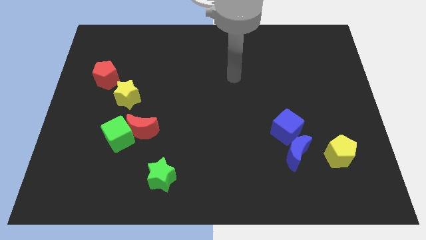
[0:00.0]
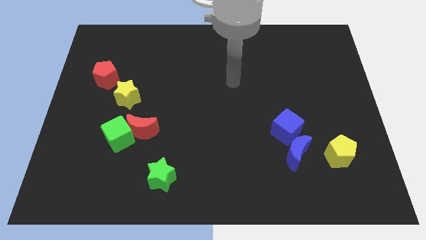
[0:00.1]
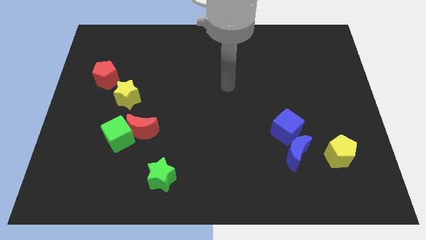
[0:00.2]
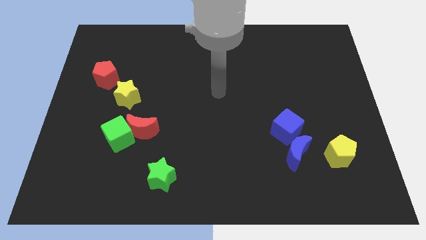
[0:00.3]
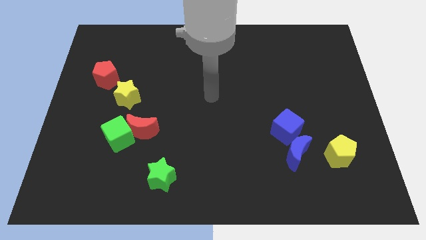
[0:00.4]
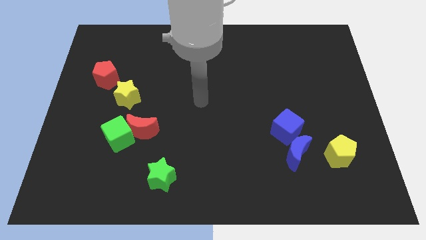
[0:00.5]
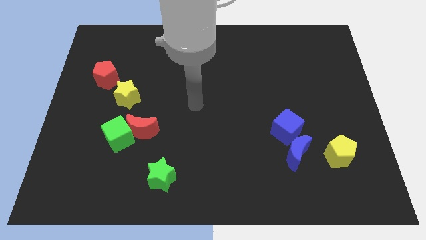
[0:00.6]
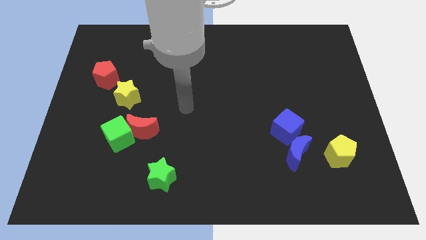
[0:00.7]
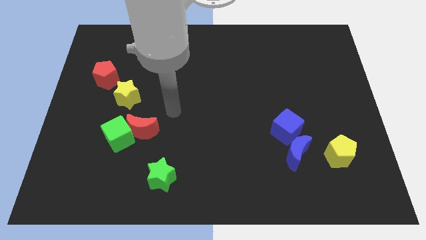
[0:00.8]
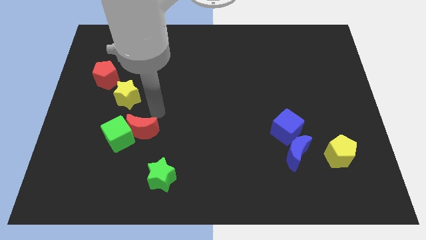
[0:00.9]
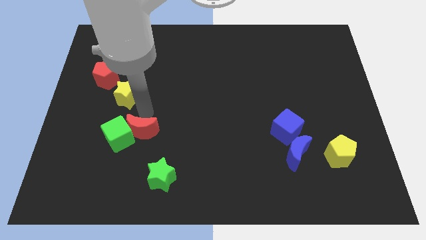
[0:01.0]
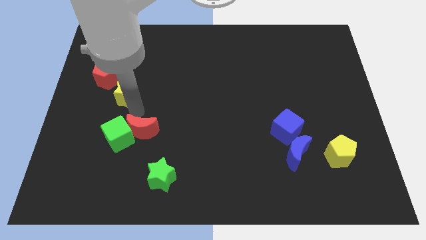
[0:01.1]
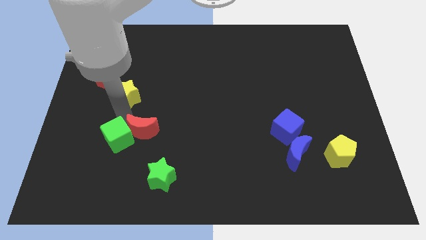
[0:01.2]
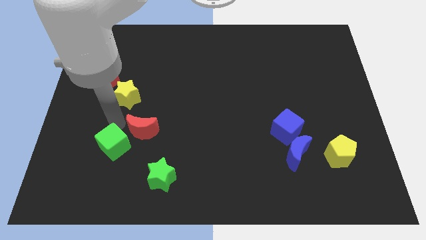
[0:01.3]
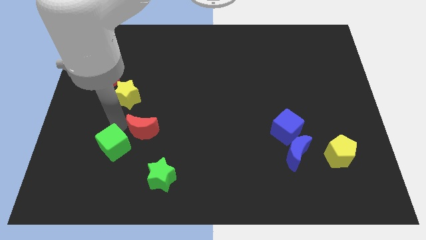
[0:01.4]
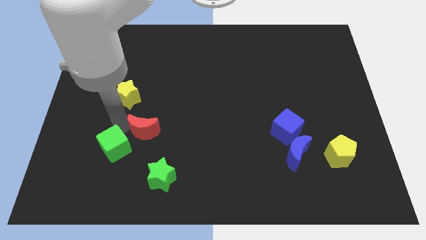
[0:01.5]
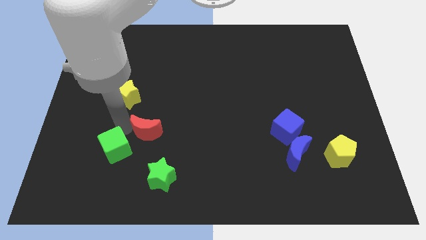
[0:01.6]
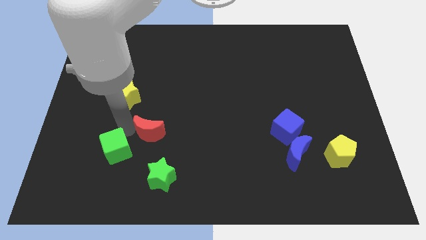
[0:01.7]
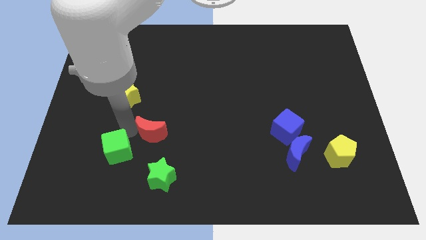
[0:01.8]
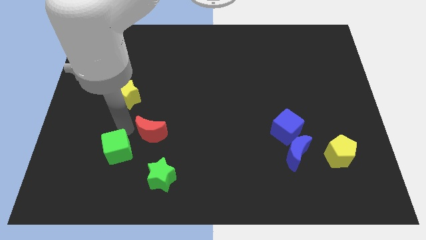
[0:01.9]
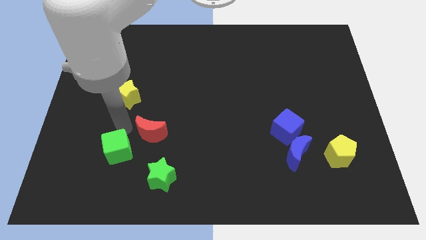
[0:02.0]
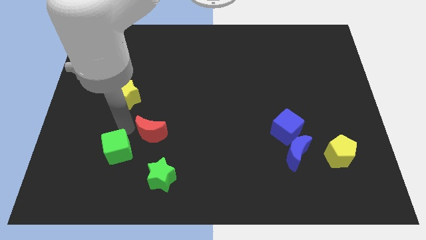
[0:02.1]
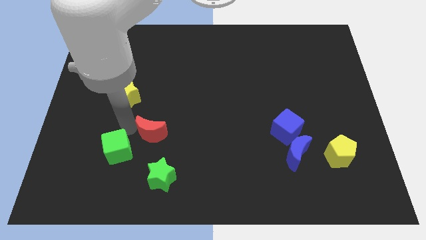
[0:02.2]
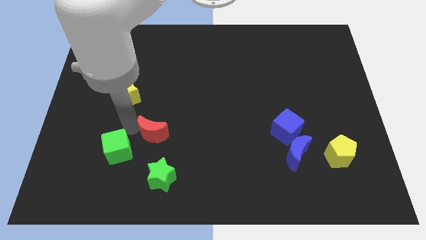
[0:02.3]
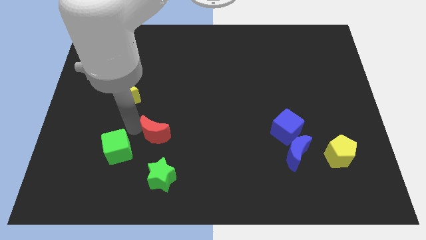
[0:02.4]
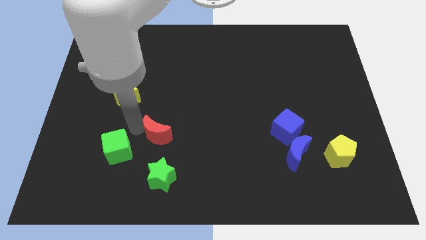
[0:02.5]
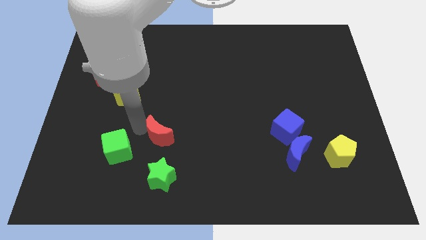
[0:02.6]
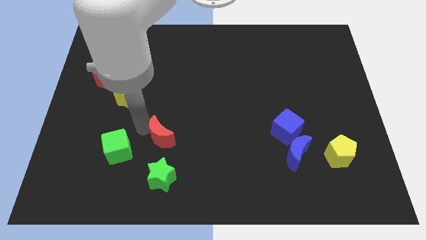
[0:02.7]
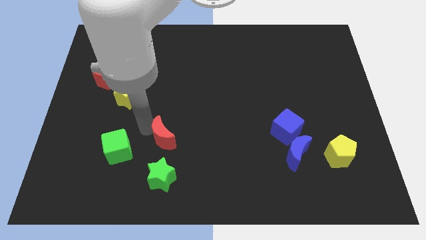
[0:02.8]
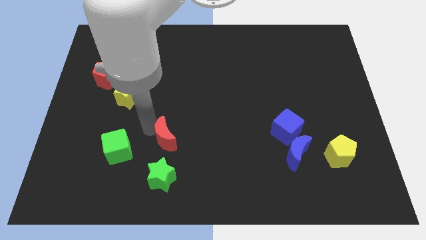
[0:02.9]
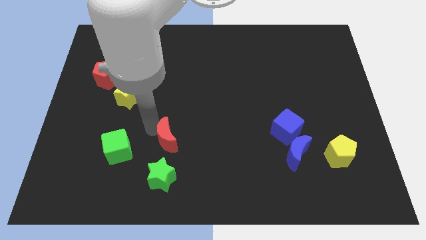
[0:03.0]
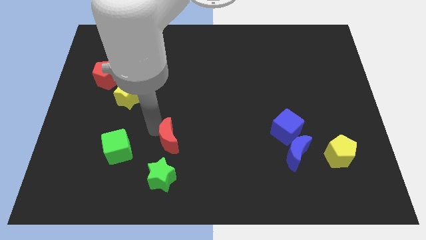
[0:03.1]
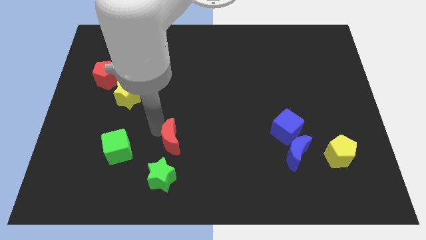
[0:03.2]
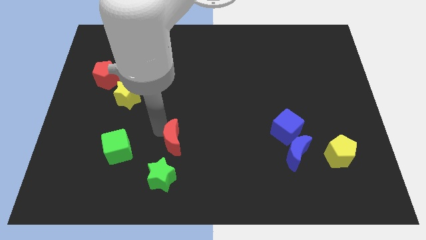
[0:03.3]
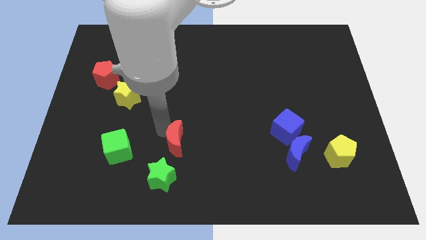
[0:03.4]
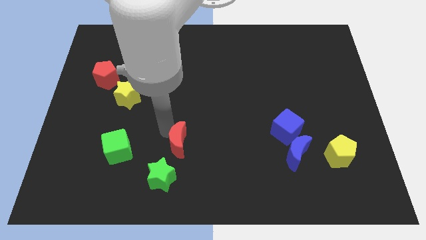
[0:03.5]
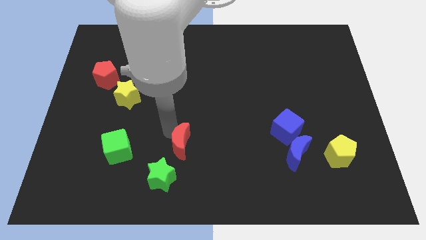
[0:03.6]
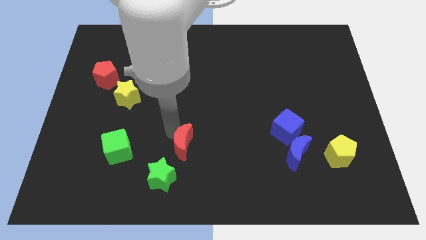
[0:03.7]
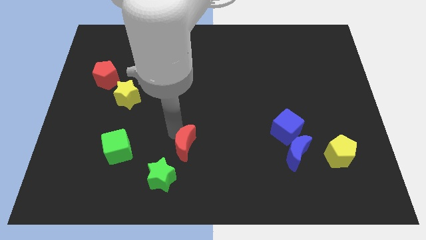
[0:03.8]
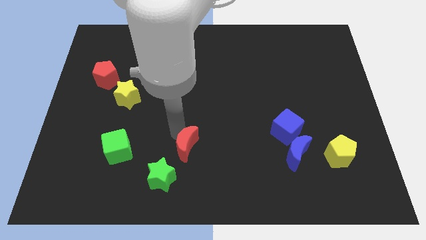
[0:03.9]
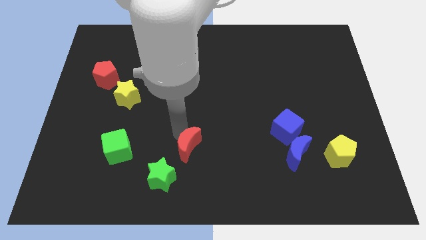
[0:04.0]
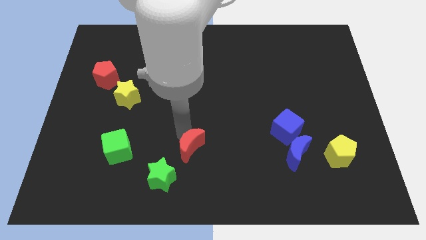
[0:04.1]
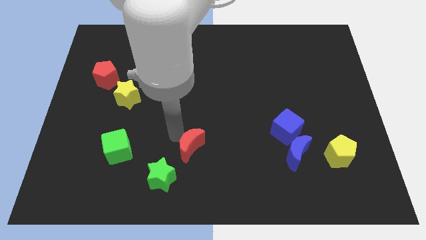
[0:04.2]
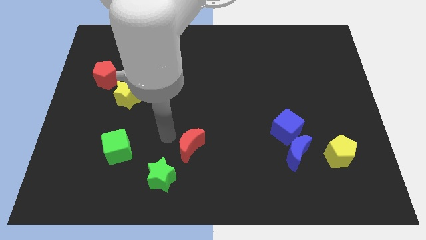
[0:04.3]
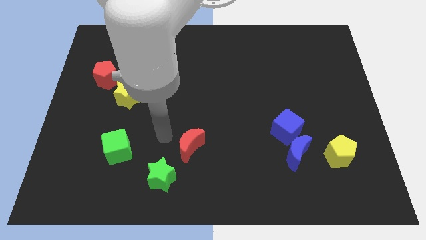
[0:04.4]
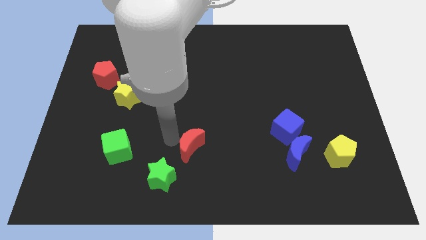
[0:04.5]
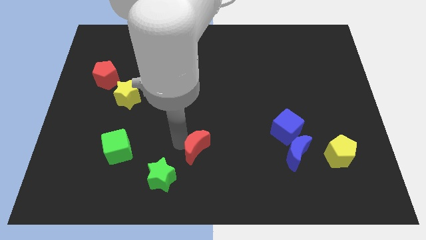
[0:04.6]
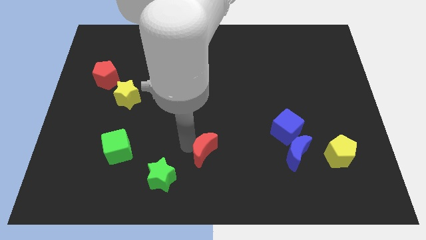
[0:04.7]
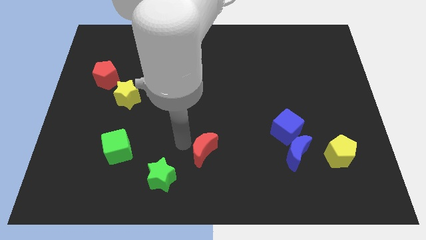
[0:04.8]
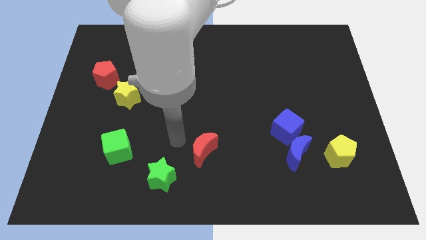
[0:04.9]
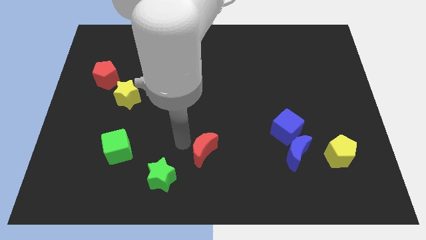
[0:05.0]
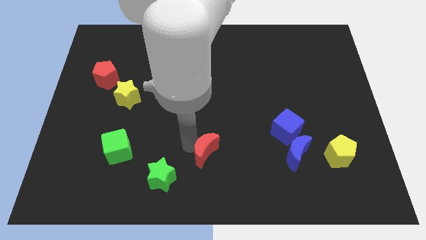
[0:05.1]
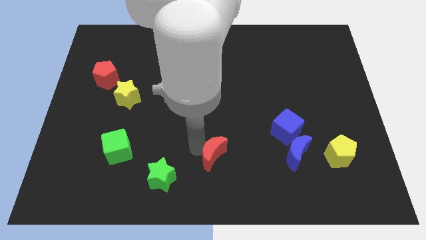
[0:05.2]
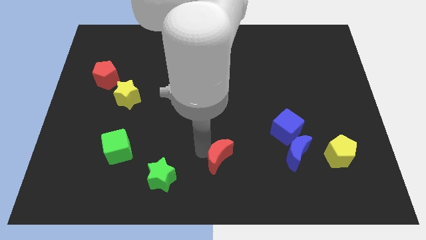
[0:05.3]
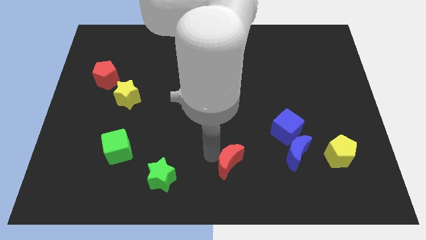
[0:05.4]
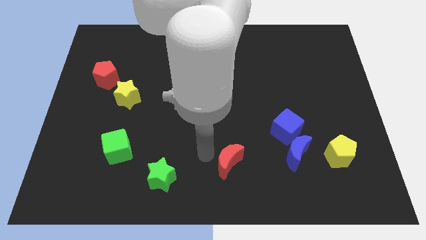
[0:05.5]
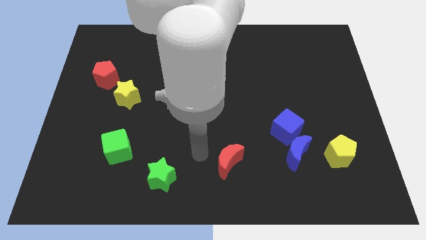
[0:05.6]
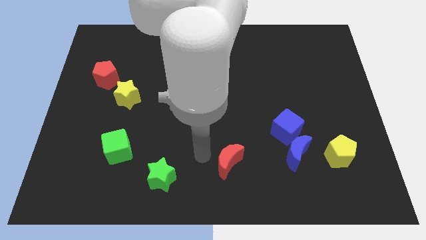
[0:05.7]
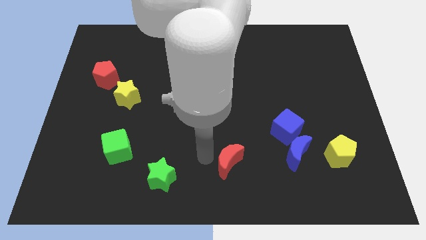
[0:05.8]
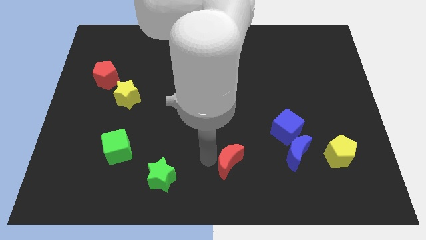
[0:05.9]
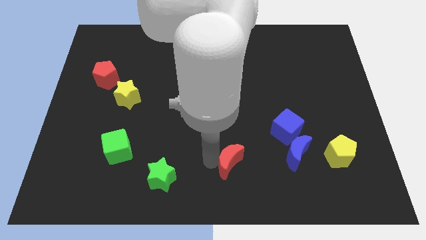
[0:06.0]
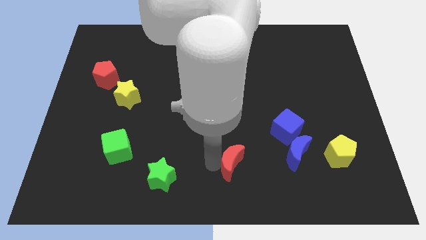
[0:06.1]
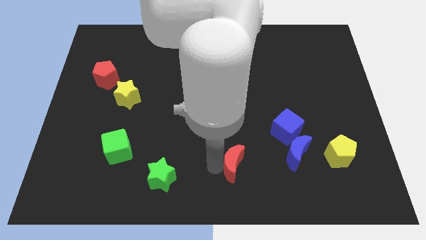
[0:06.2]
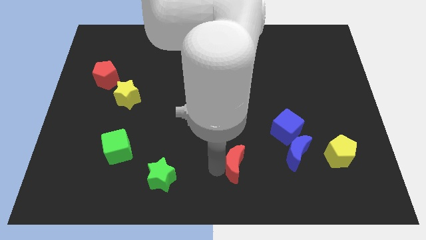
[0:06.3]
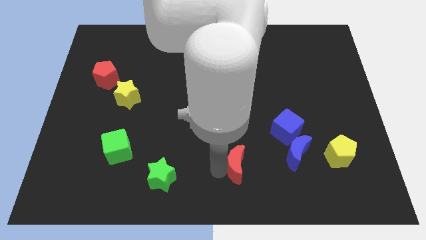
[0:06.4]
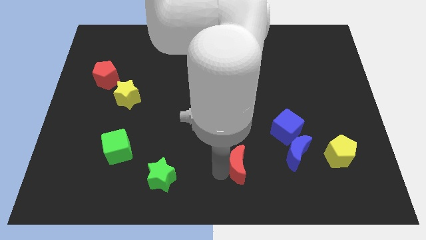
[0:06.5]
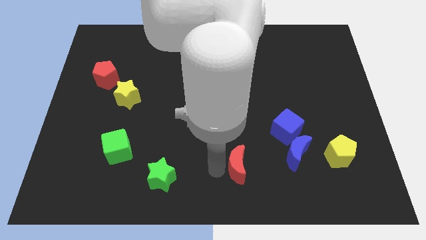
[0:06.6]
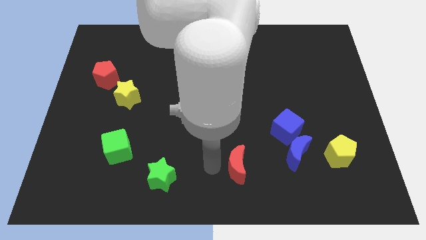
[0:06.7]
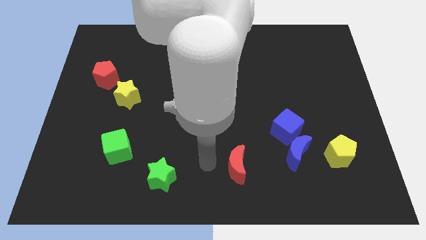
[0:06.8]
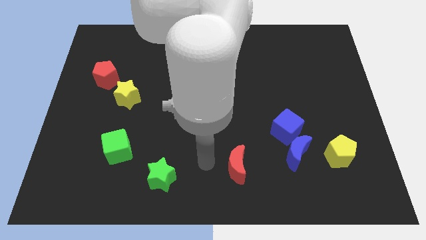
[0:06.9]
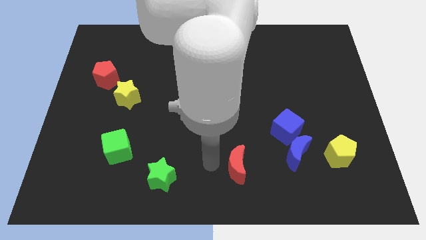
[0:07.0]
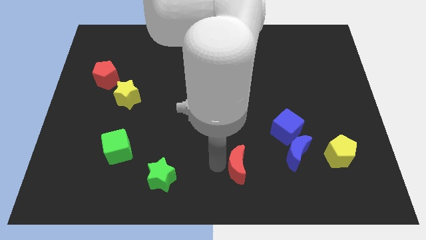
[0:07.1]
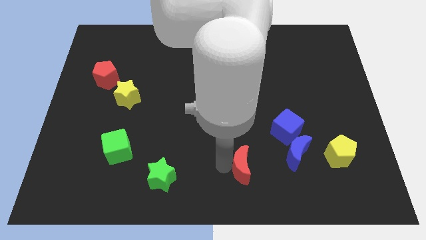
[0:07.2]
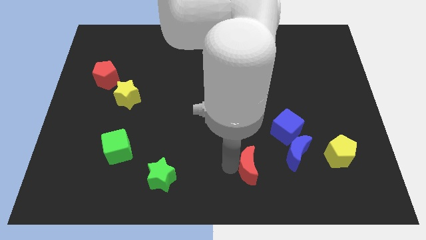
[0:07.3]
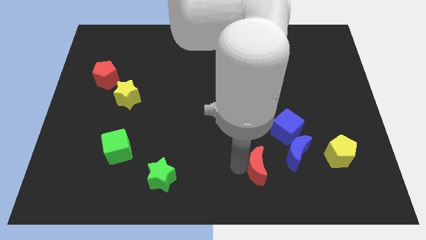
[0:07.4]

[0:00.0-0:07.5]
put the red moon to the bottom left of the blue moon
